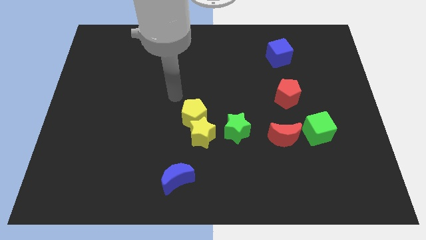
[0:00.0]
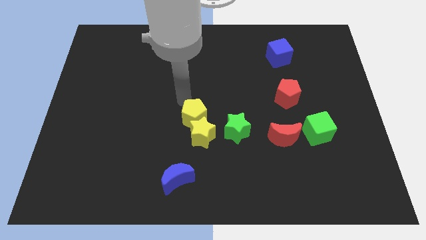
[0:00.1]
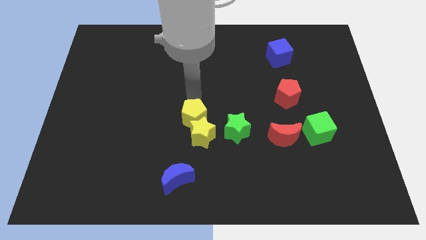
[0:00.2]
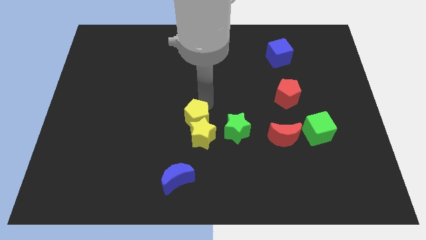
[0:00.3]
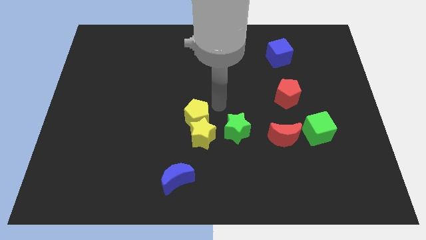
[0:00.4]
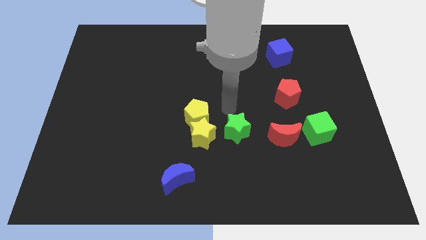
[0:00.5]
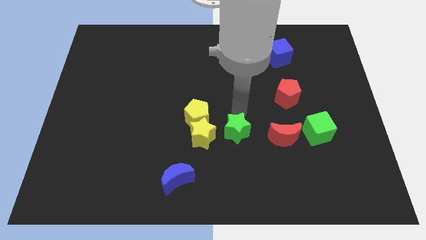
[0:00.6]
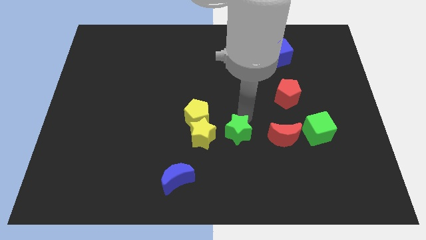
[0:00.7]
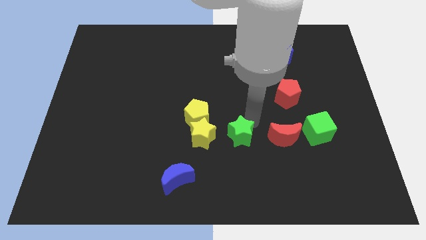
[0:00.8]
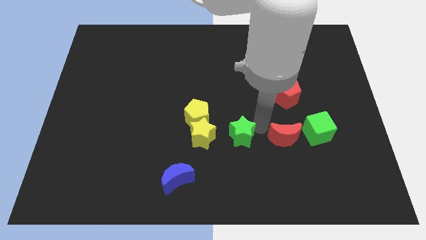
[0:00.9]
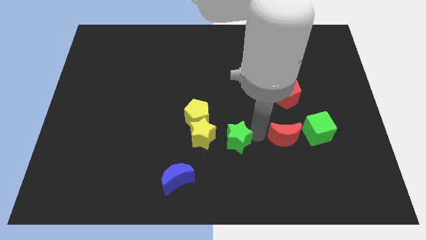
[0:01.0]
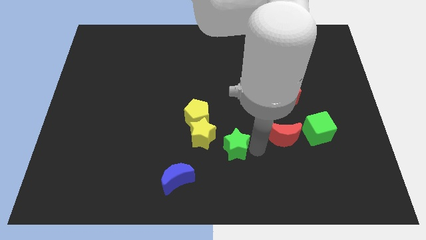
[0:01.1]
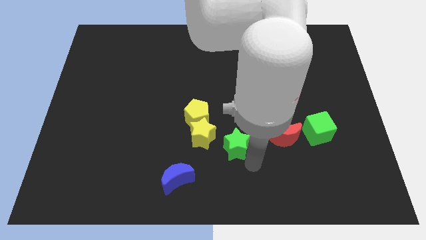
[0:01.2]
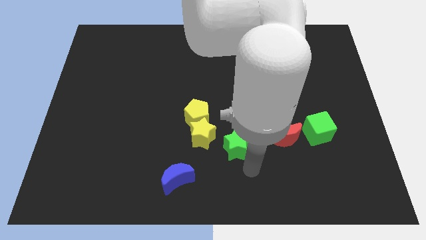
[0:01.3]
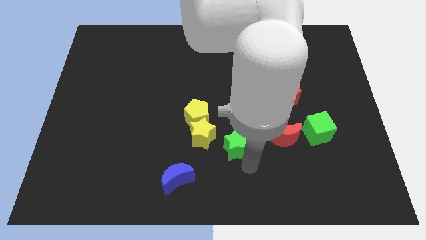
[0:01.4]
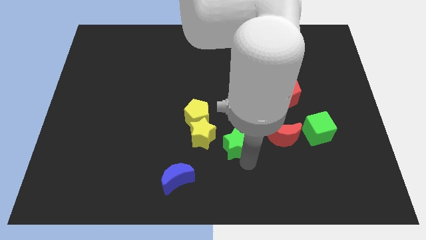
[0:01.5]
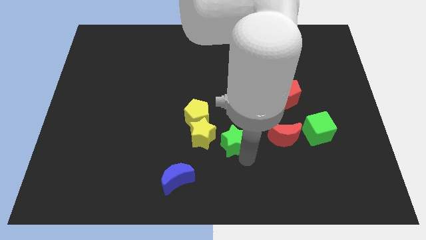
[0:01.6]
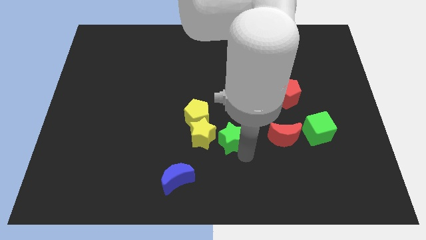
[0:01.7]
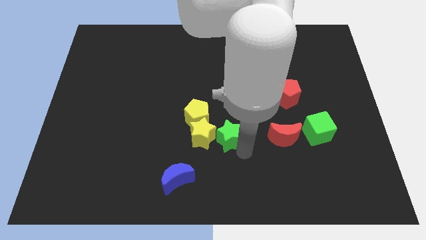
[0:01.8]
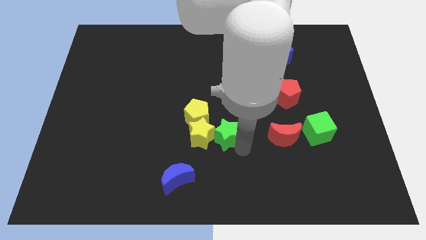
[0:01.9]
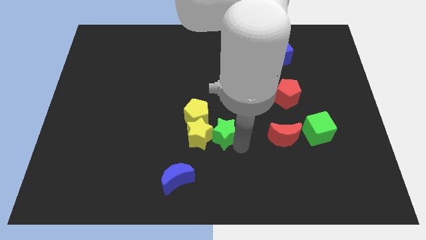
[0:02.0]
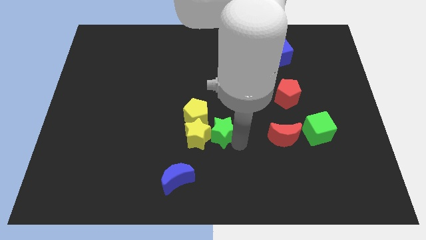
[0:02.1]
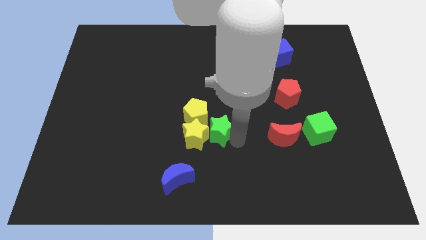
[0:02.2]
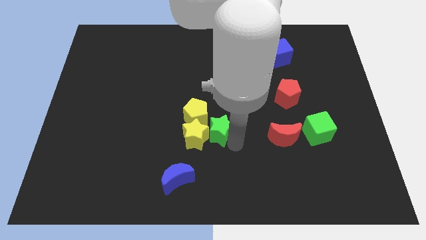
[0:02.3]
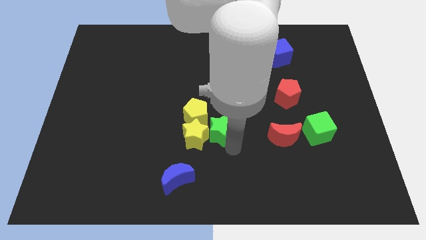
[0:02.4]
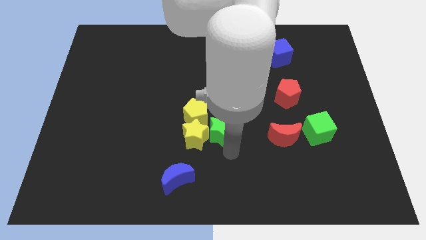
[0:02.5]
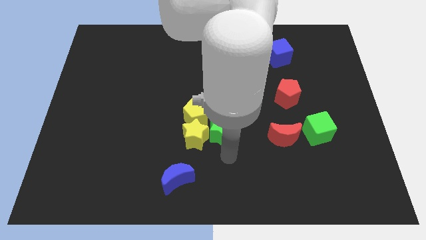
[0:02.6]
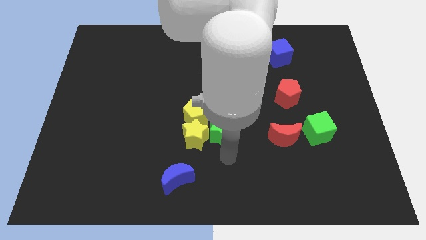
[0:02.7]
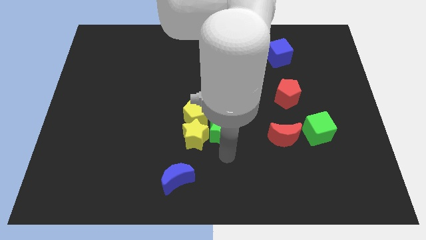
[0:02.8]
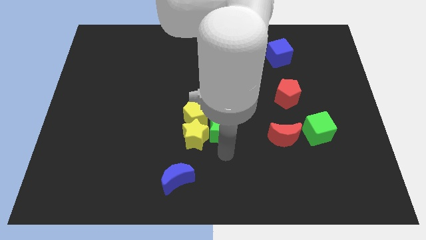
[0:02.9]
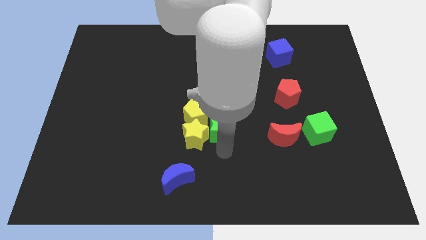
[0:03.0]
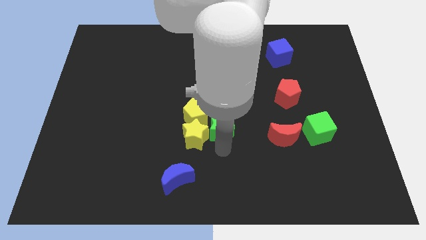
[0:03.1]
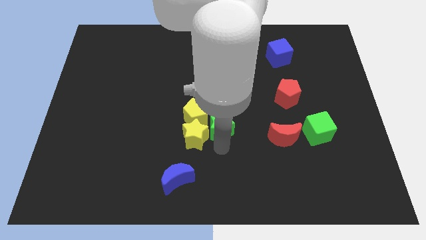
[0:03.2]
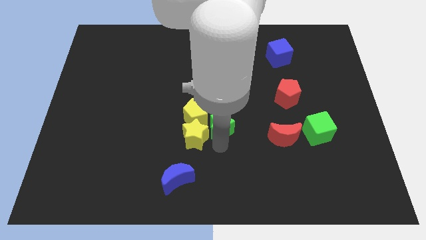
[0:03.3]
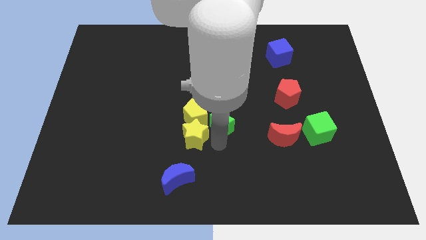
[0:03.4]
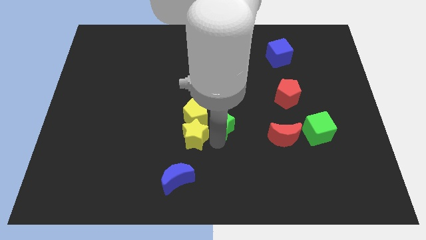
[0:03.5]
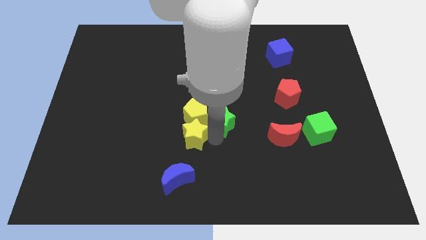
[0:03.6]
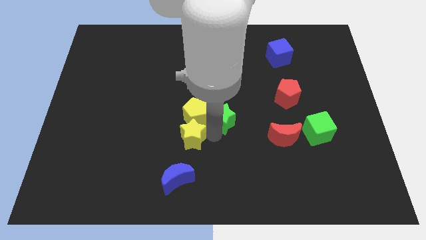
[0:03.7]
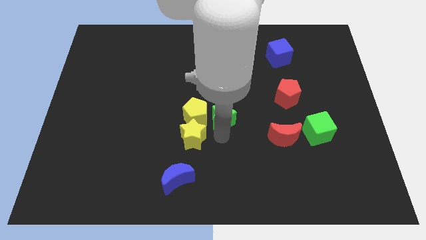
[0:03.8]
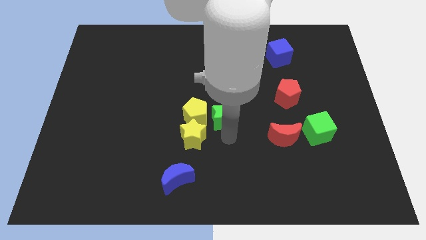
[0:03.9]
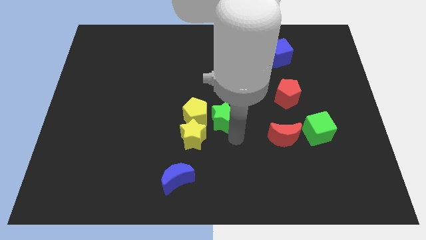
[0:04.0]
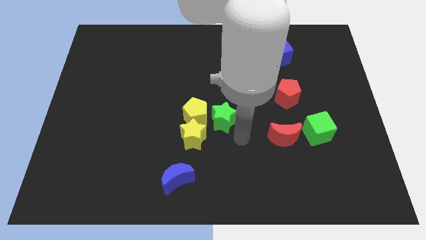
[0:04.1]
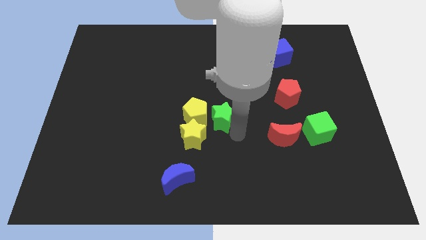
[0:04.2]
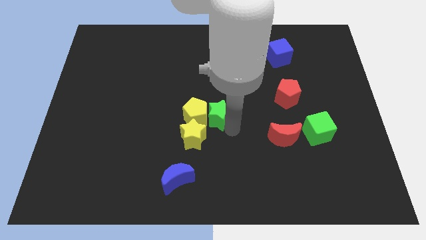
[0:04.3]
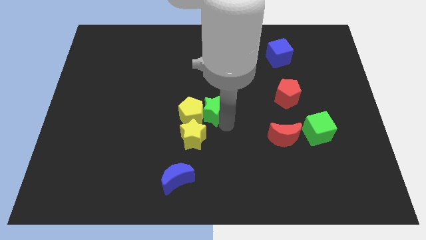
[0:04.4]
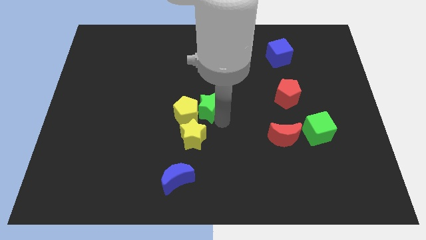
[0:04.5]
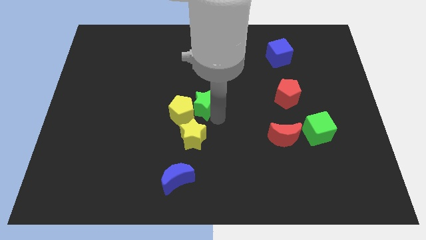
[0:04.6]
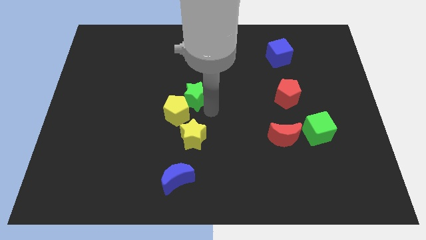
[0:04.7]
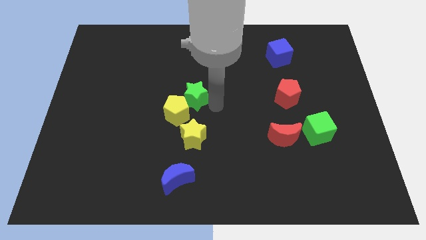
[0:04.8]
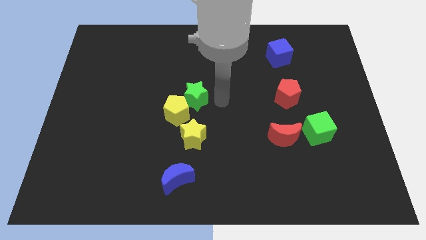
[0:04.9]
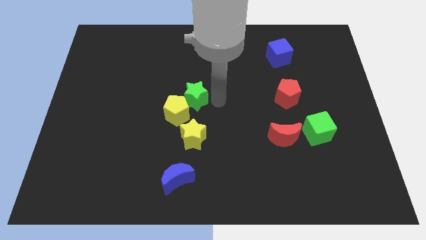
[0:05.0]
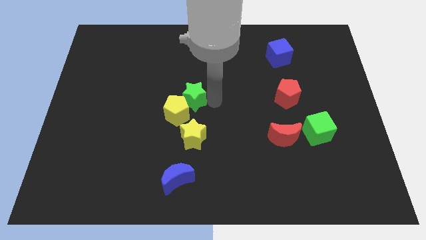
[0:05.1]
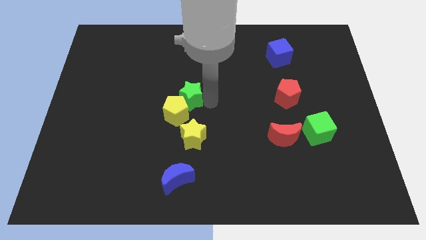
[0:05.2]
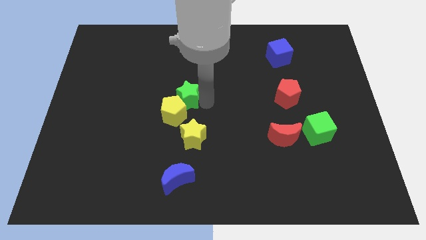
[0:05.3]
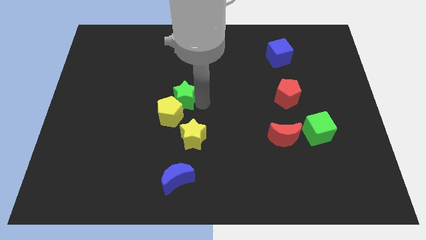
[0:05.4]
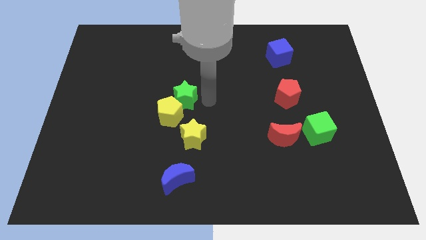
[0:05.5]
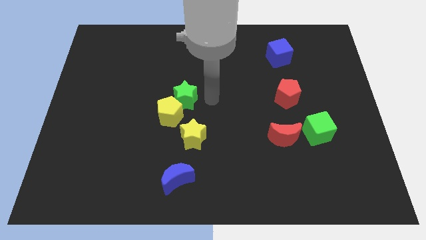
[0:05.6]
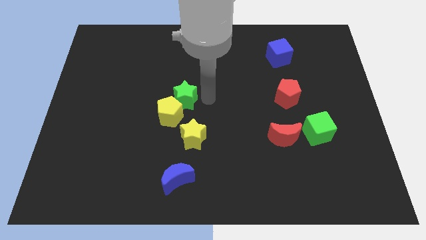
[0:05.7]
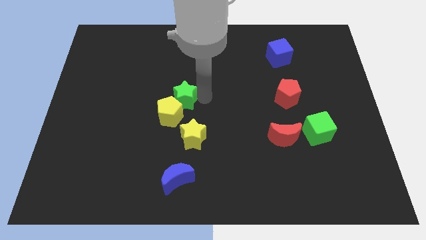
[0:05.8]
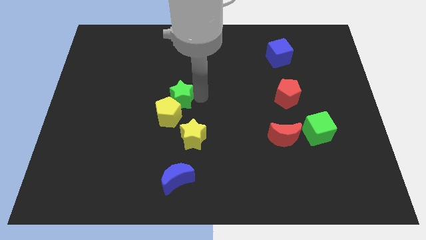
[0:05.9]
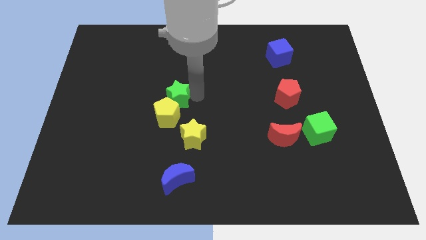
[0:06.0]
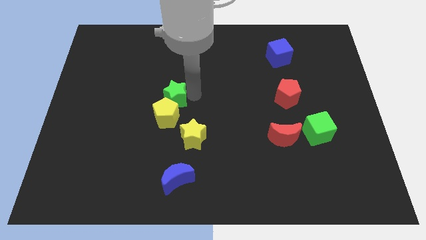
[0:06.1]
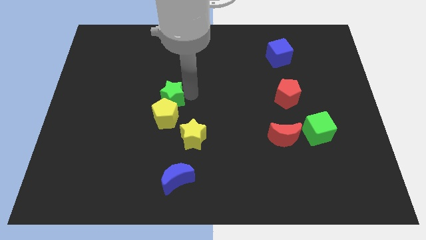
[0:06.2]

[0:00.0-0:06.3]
slide the green star to the top left of the yellow pentagon

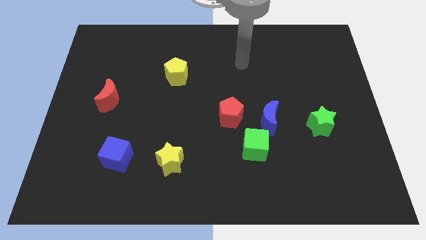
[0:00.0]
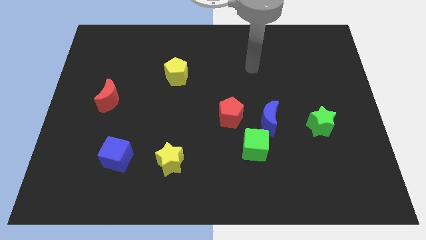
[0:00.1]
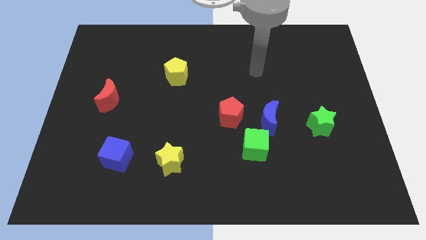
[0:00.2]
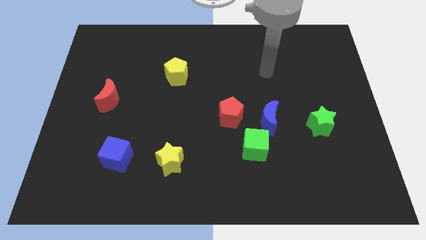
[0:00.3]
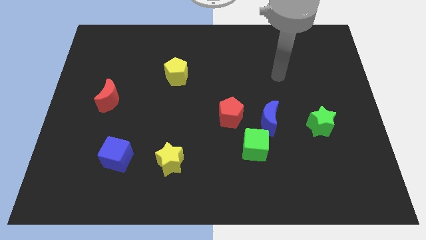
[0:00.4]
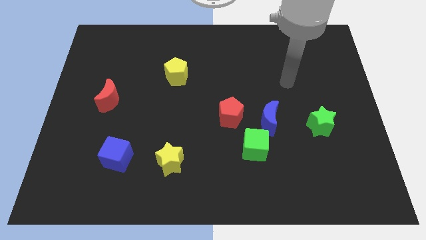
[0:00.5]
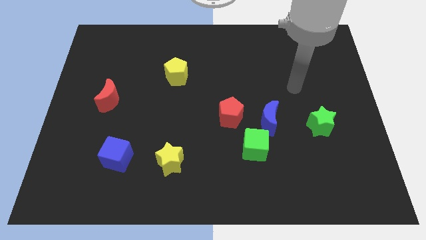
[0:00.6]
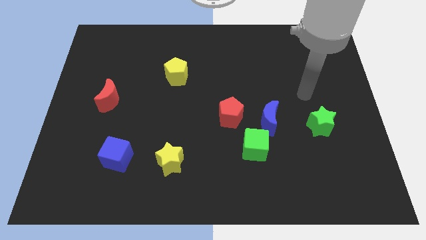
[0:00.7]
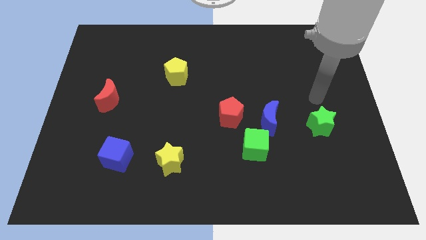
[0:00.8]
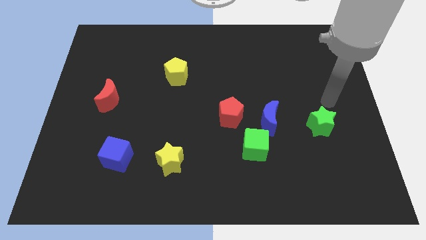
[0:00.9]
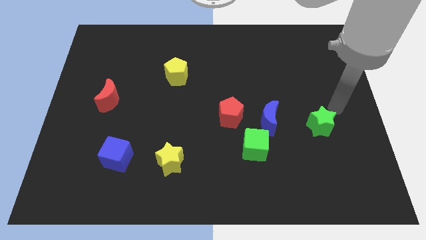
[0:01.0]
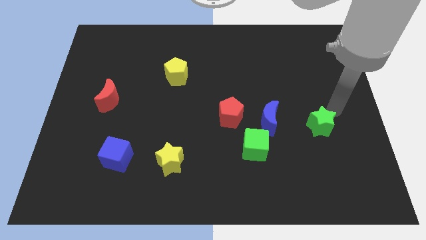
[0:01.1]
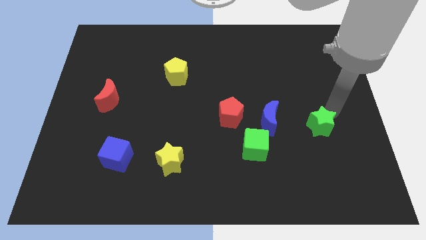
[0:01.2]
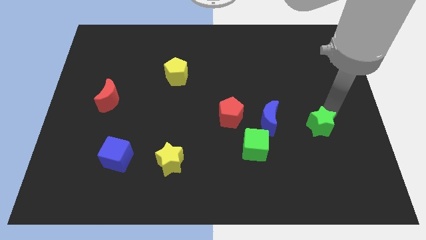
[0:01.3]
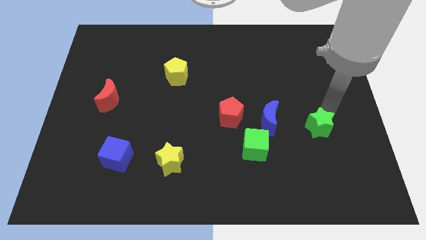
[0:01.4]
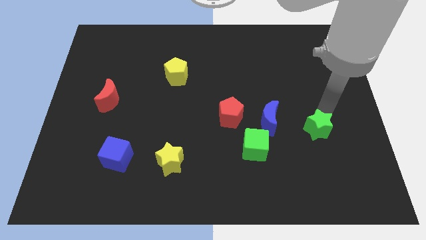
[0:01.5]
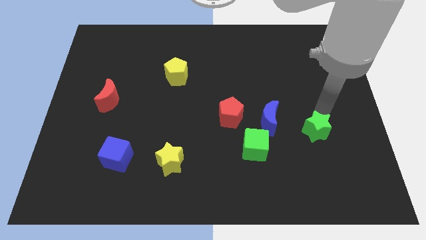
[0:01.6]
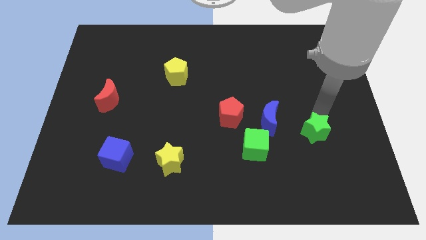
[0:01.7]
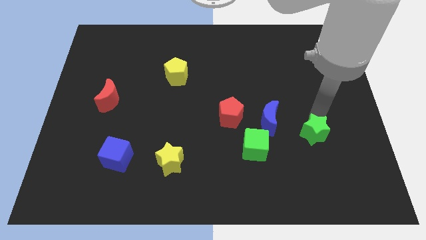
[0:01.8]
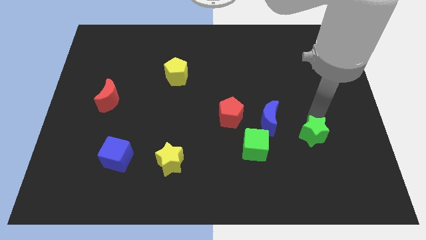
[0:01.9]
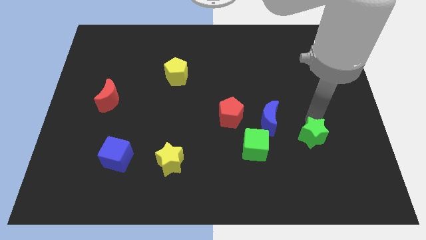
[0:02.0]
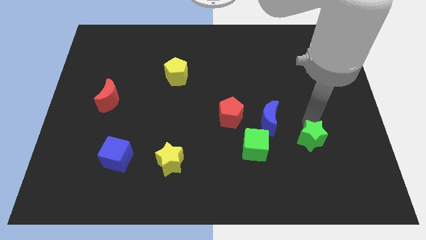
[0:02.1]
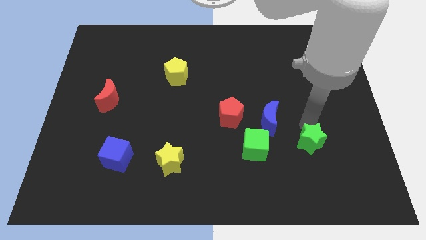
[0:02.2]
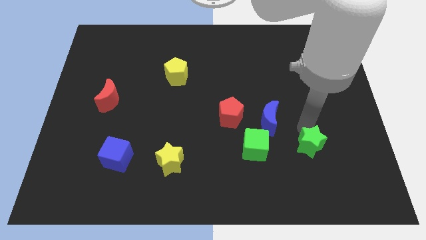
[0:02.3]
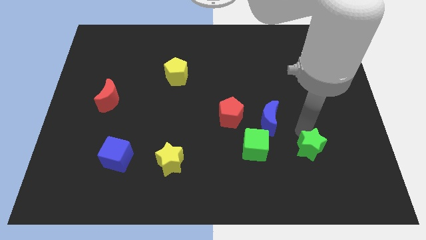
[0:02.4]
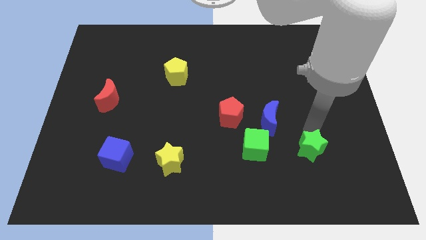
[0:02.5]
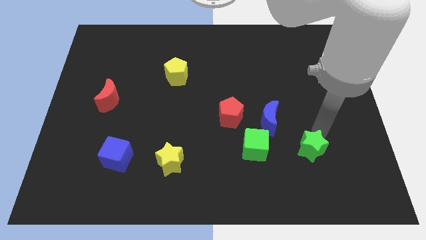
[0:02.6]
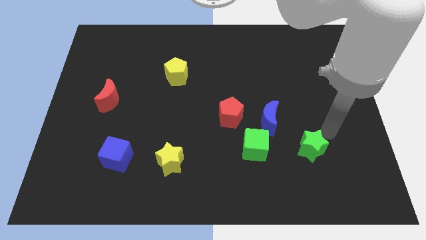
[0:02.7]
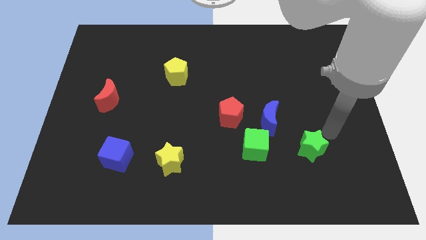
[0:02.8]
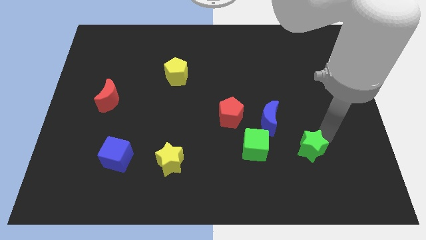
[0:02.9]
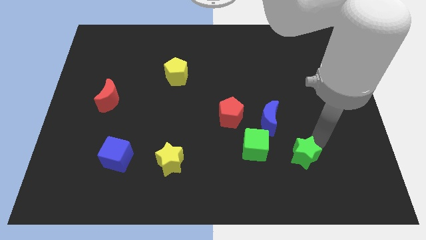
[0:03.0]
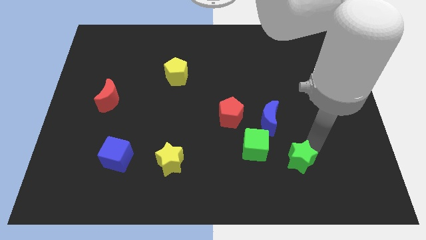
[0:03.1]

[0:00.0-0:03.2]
put the green star to the bottom right of the green cube
